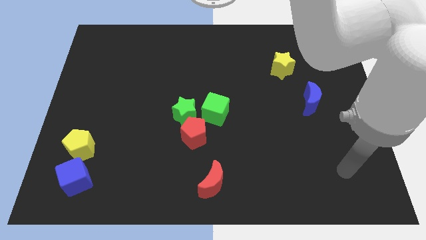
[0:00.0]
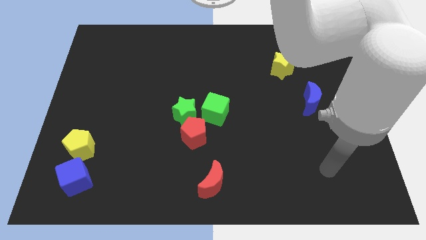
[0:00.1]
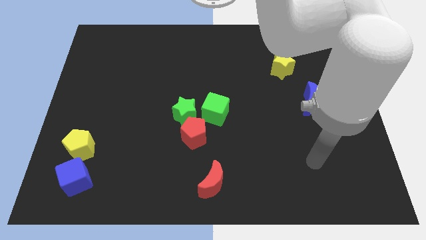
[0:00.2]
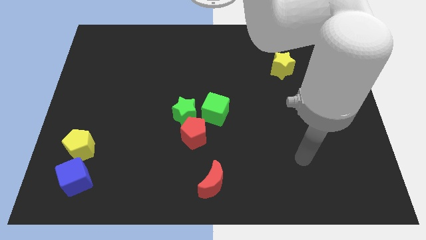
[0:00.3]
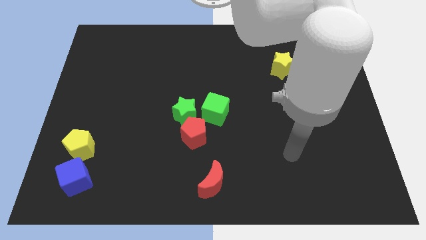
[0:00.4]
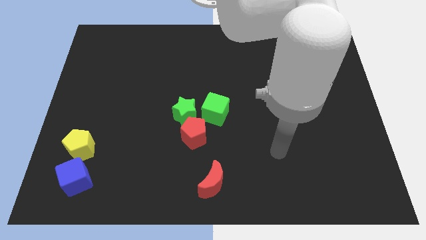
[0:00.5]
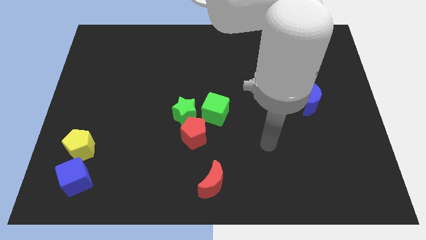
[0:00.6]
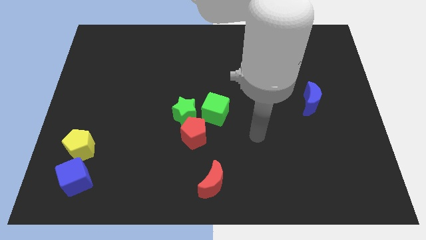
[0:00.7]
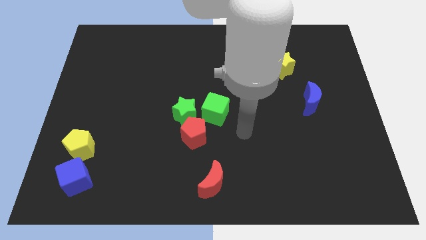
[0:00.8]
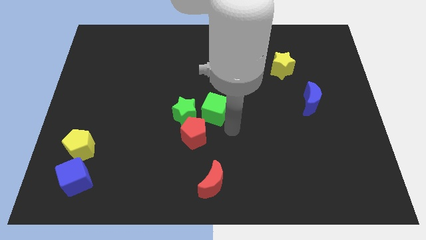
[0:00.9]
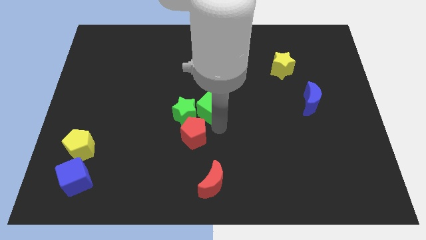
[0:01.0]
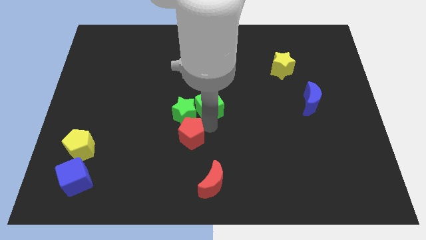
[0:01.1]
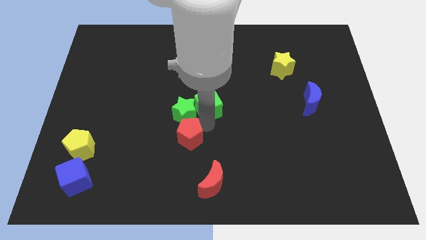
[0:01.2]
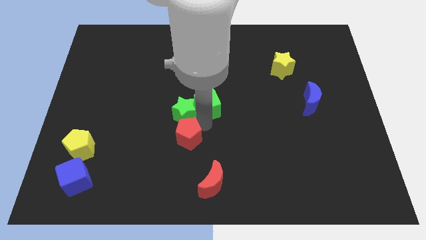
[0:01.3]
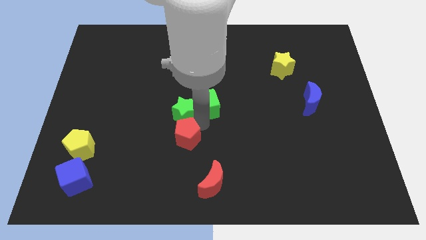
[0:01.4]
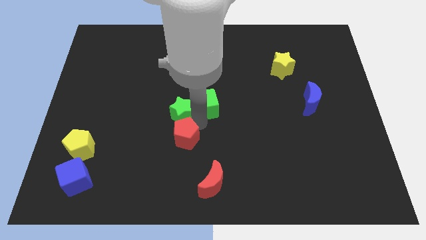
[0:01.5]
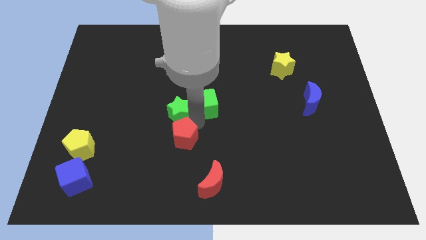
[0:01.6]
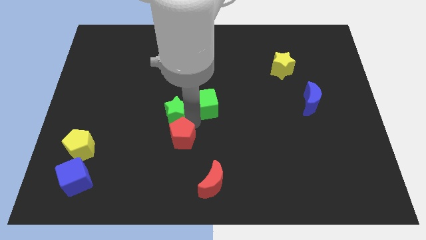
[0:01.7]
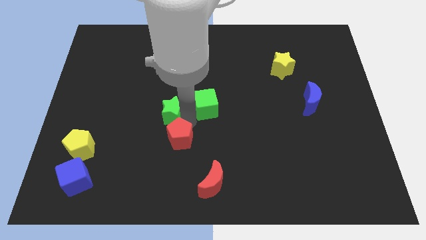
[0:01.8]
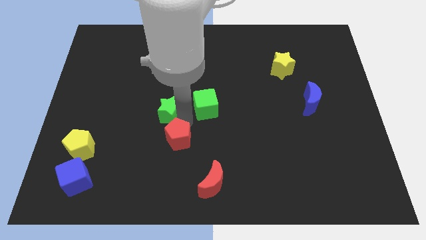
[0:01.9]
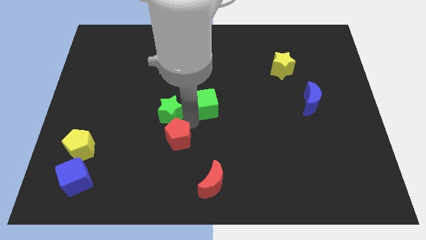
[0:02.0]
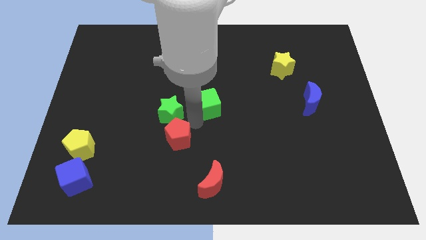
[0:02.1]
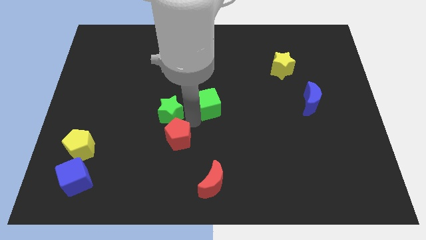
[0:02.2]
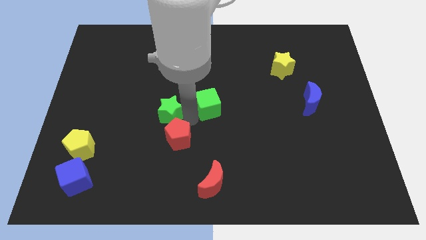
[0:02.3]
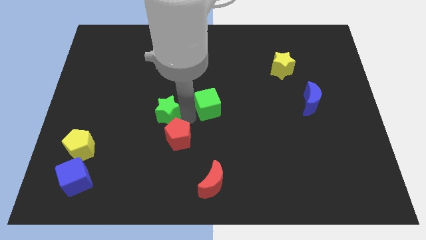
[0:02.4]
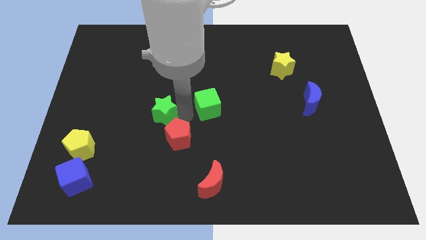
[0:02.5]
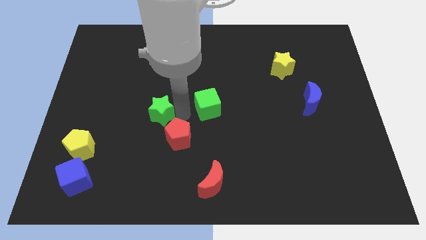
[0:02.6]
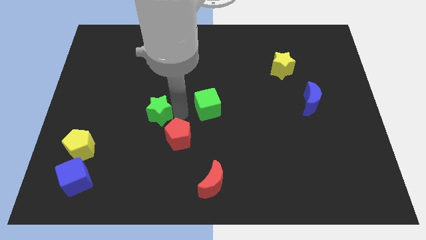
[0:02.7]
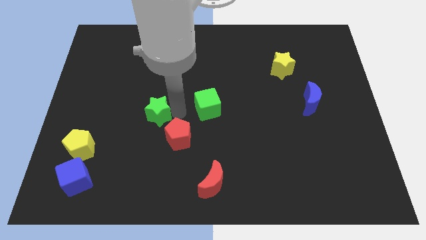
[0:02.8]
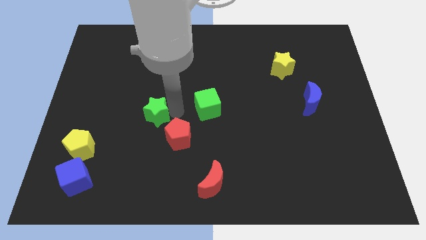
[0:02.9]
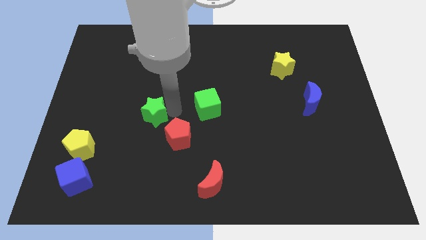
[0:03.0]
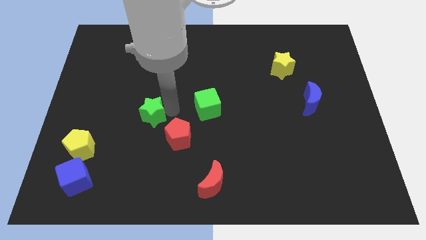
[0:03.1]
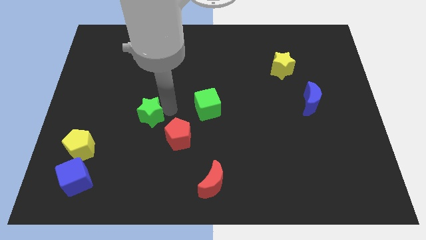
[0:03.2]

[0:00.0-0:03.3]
pull the green star apart from the red pentagon and green cube

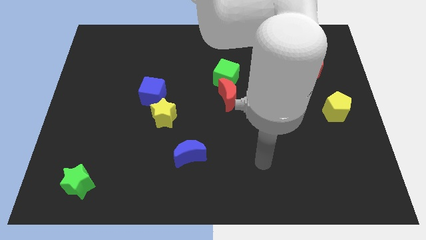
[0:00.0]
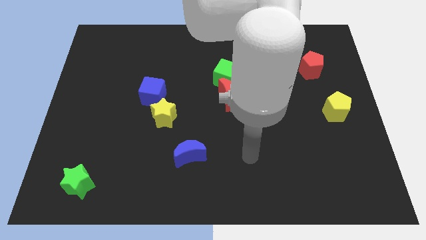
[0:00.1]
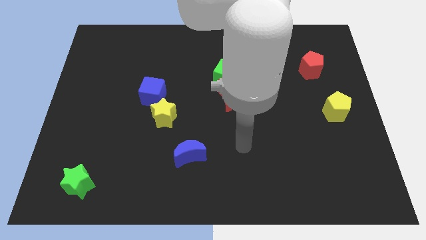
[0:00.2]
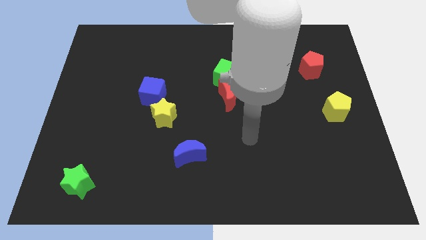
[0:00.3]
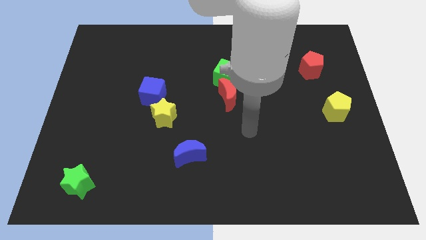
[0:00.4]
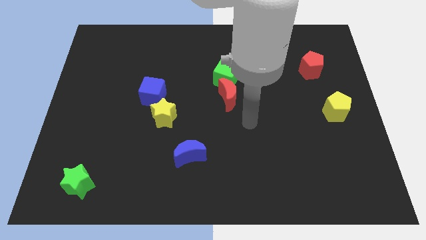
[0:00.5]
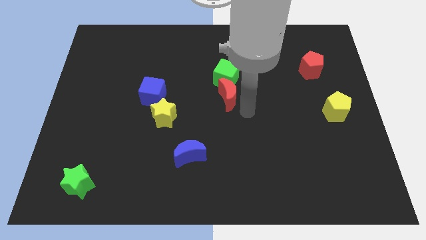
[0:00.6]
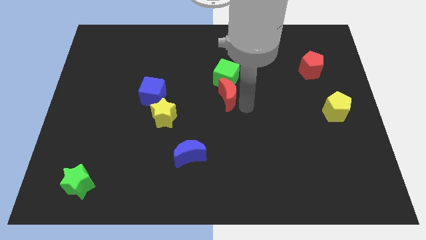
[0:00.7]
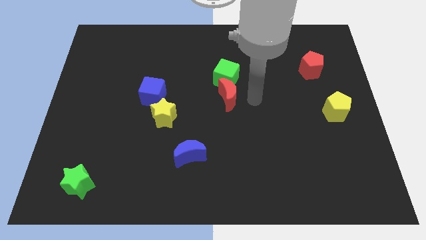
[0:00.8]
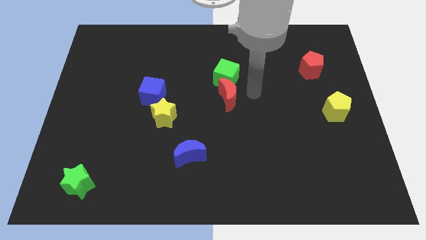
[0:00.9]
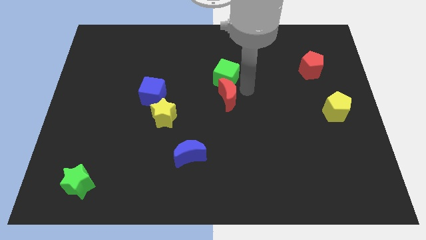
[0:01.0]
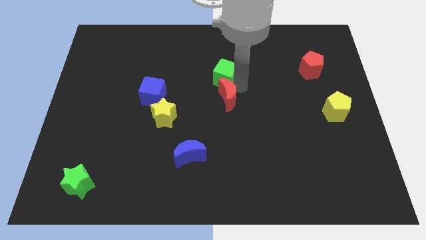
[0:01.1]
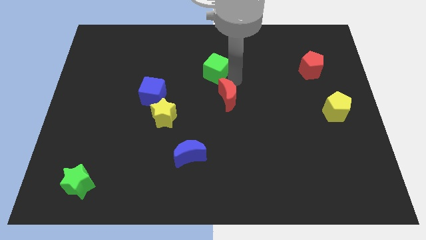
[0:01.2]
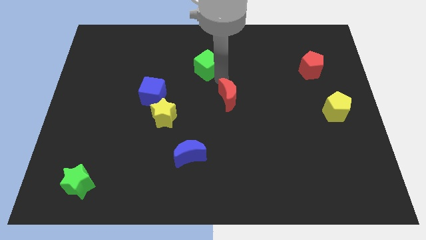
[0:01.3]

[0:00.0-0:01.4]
separate the red moon from the green cube

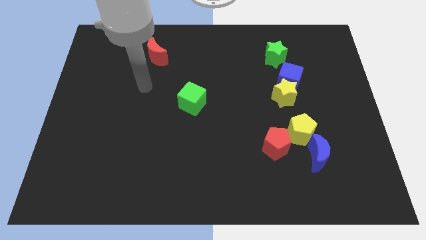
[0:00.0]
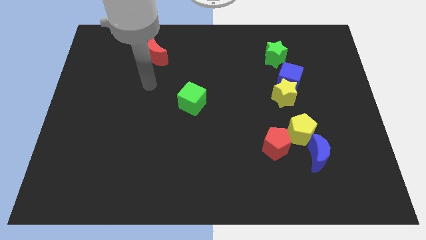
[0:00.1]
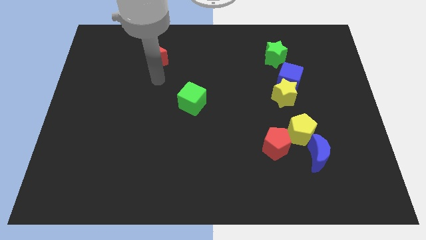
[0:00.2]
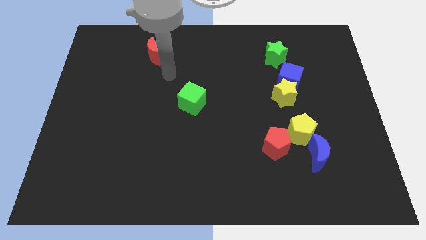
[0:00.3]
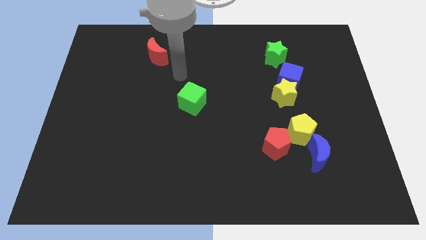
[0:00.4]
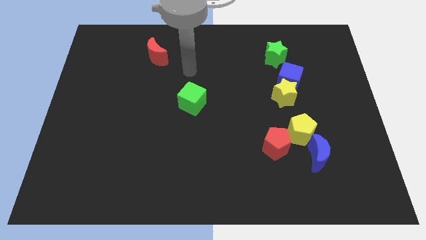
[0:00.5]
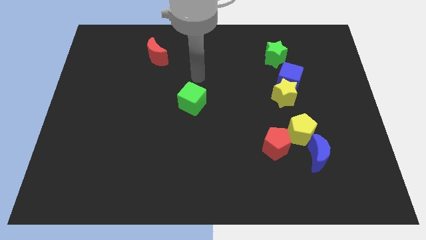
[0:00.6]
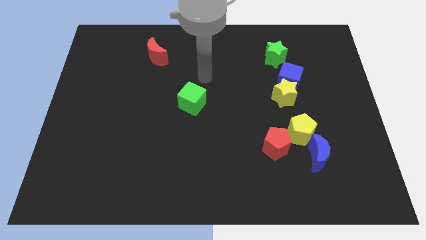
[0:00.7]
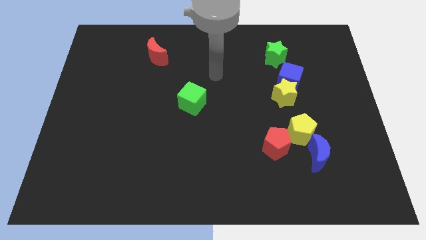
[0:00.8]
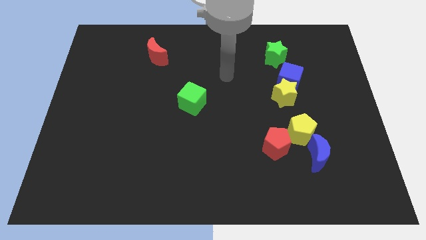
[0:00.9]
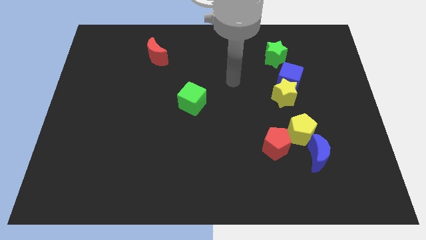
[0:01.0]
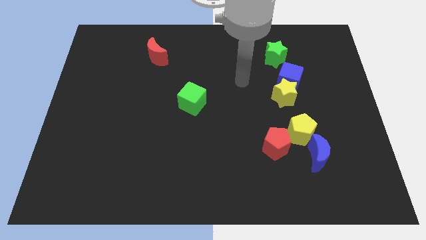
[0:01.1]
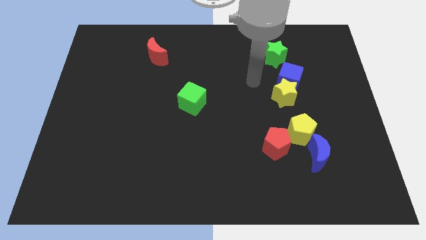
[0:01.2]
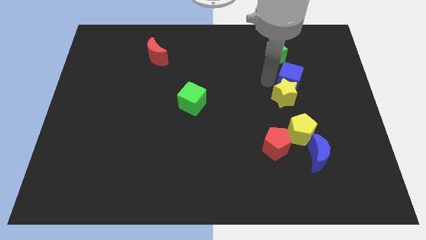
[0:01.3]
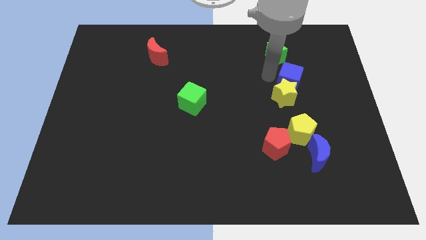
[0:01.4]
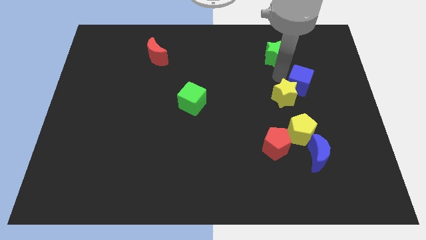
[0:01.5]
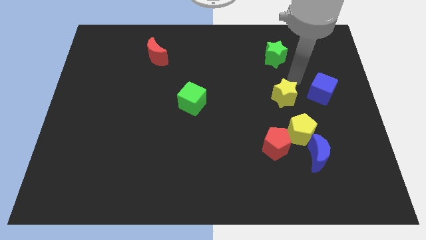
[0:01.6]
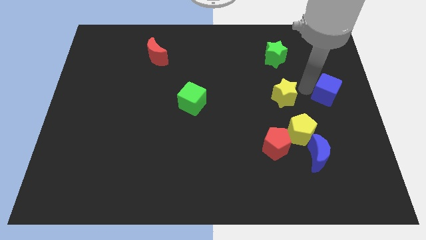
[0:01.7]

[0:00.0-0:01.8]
move the yellow star away from the blue cube

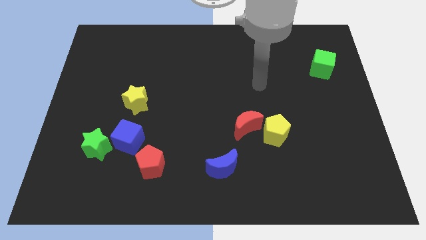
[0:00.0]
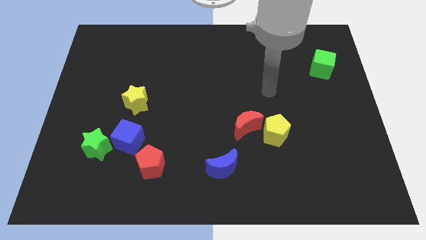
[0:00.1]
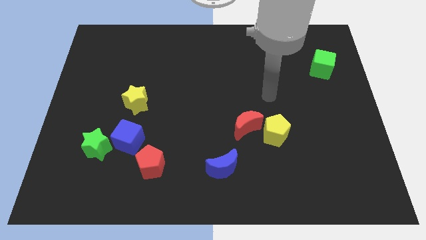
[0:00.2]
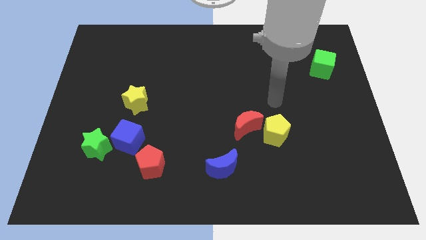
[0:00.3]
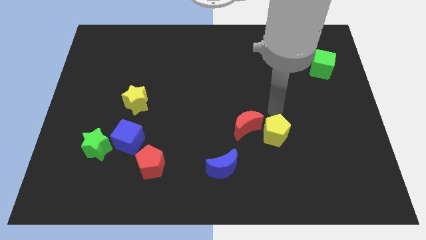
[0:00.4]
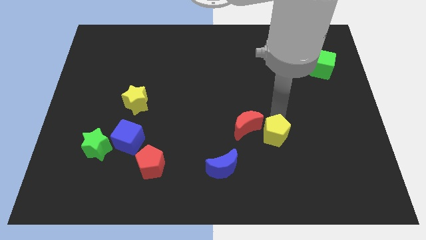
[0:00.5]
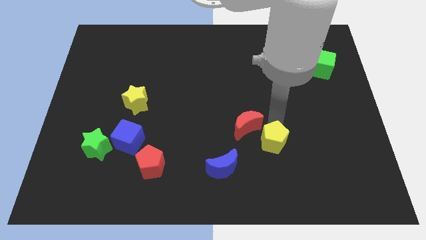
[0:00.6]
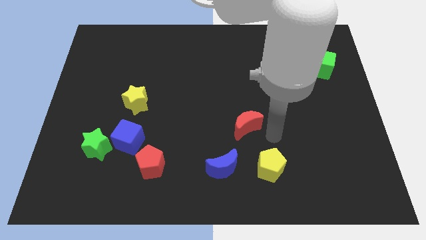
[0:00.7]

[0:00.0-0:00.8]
move the red moon away from the yellow pentagon

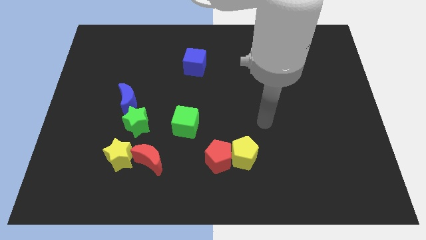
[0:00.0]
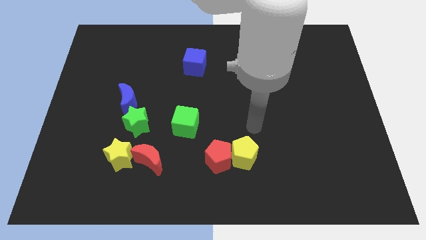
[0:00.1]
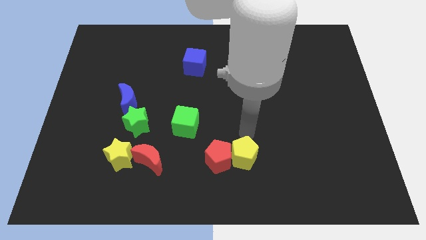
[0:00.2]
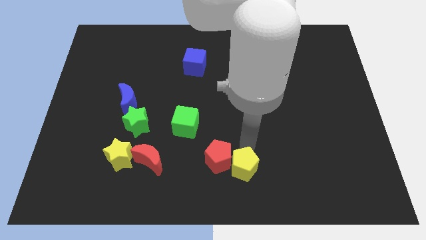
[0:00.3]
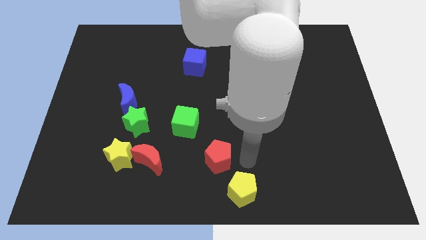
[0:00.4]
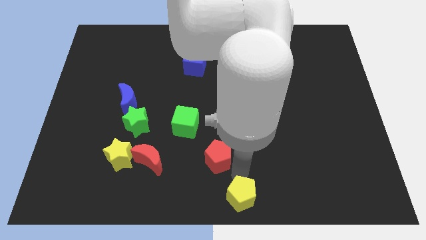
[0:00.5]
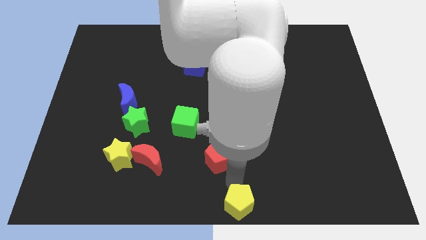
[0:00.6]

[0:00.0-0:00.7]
pull the red pentagon apart from the yellow pentagon

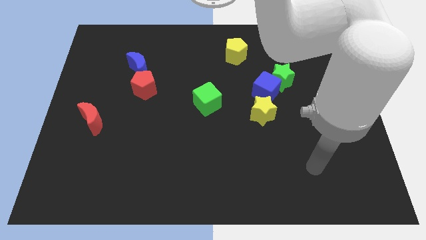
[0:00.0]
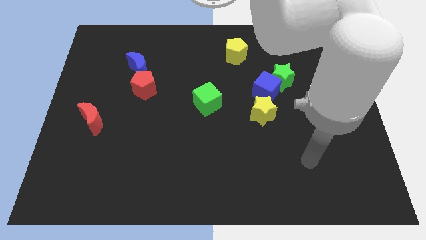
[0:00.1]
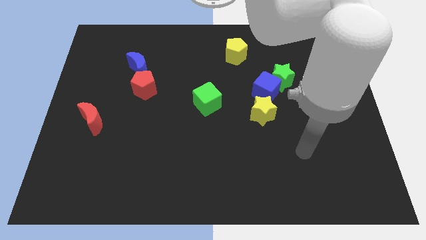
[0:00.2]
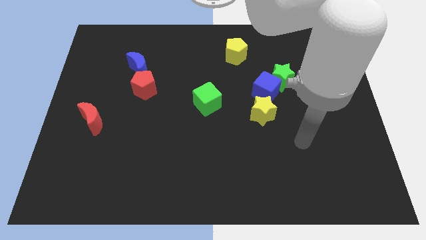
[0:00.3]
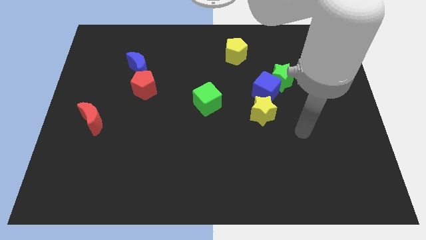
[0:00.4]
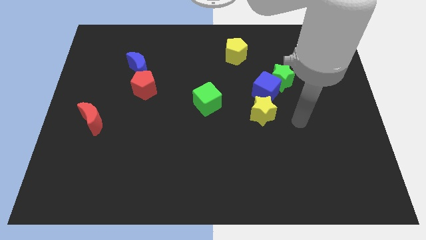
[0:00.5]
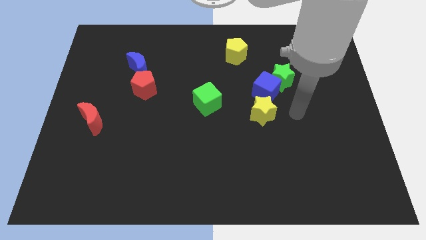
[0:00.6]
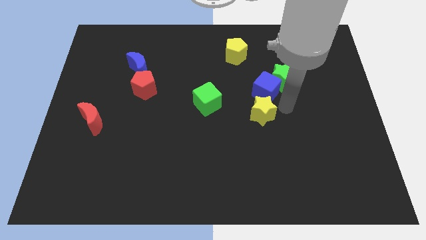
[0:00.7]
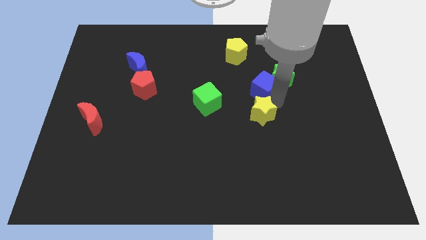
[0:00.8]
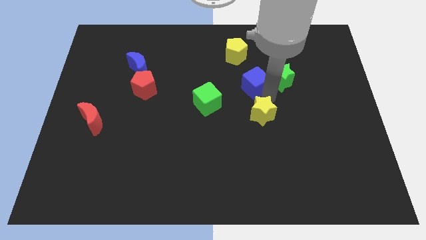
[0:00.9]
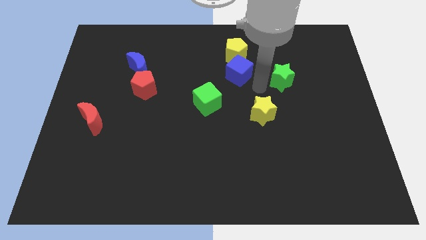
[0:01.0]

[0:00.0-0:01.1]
separate the green star from the blue cube

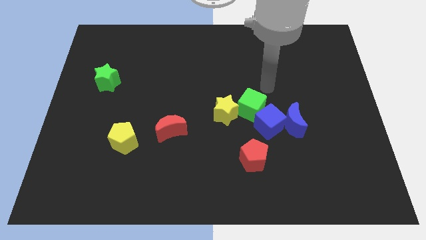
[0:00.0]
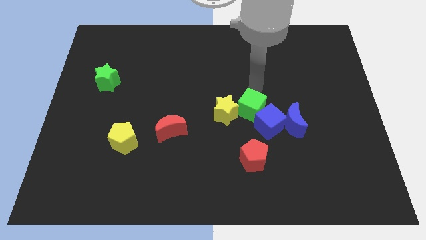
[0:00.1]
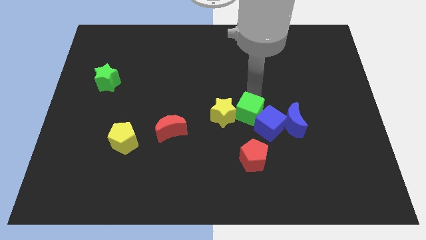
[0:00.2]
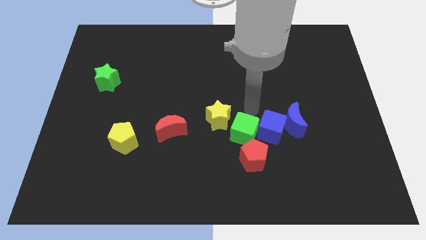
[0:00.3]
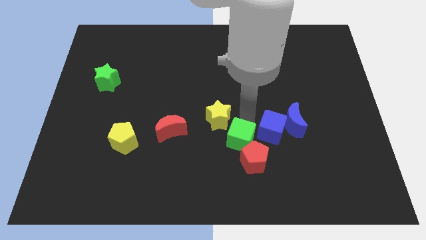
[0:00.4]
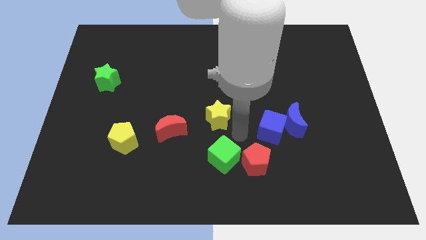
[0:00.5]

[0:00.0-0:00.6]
separate the yellow star from the green cube
